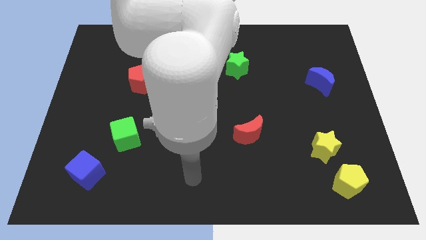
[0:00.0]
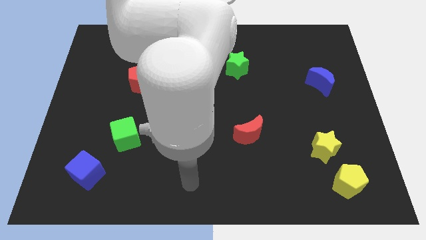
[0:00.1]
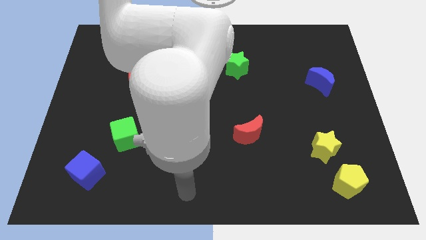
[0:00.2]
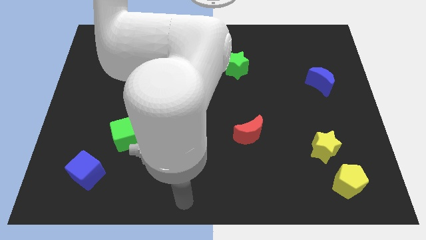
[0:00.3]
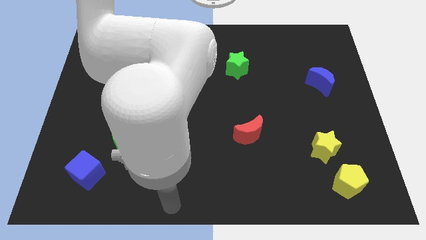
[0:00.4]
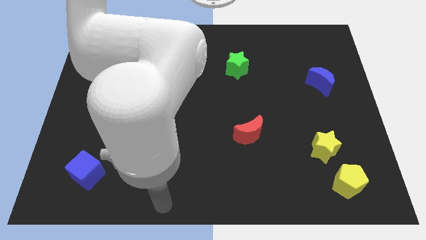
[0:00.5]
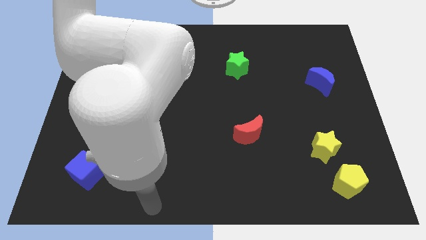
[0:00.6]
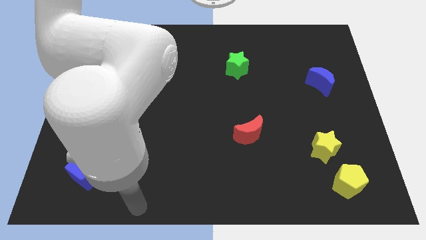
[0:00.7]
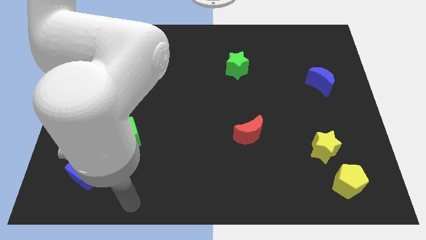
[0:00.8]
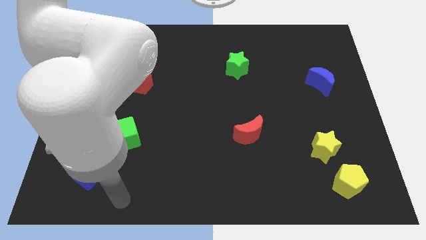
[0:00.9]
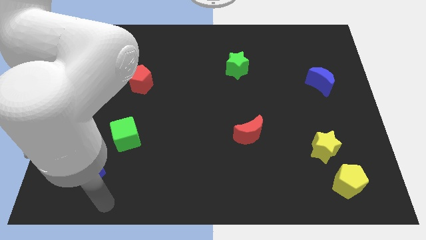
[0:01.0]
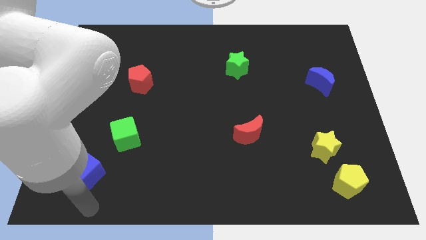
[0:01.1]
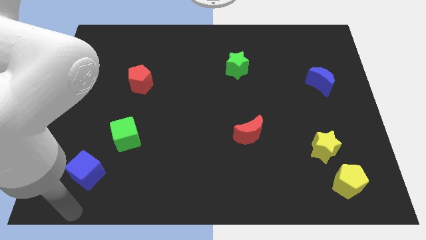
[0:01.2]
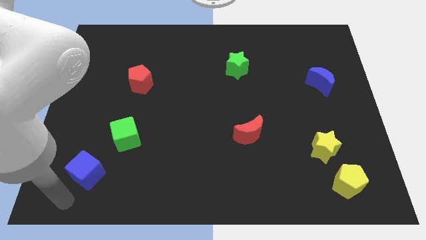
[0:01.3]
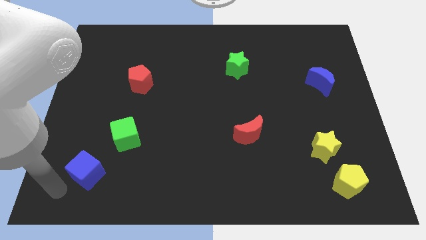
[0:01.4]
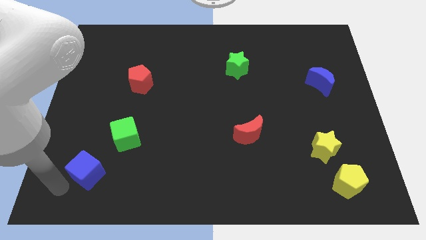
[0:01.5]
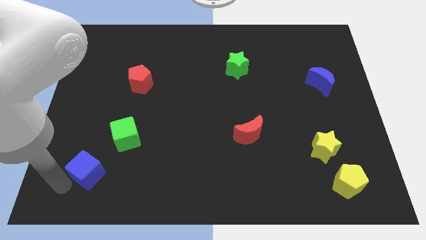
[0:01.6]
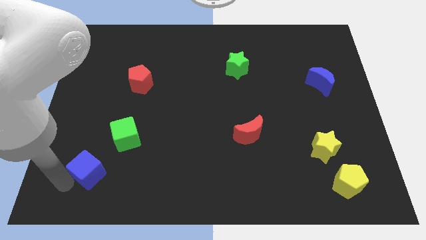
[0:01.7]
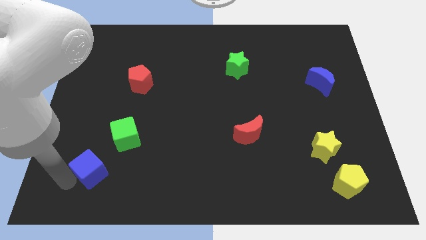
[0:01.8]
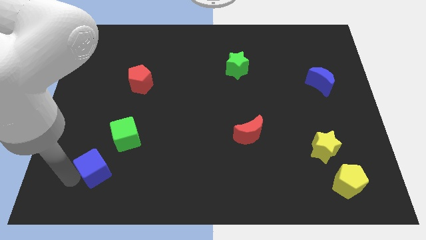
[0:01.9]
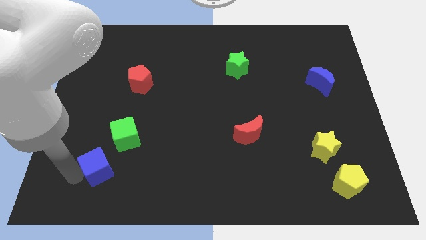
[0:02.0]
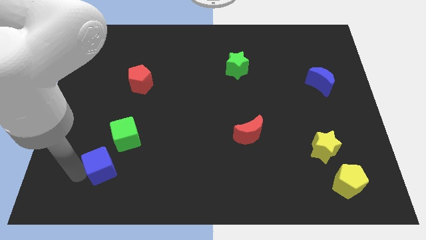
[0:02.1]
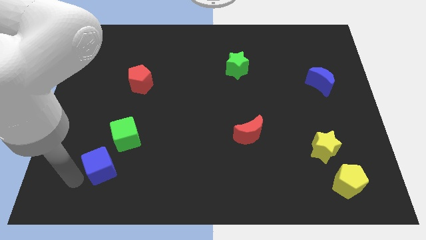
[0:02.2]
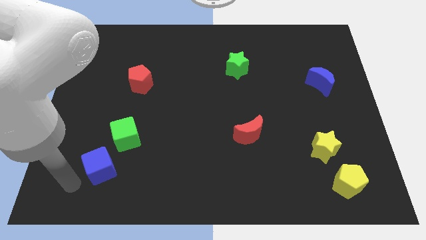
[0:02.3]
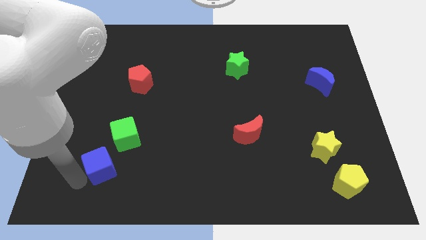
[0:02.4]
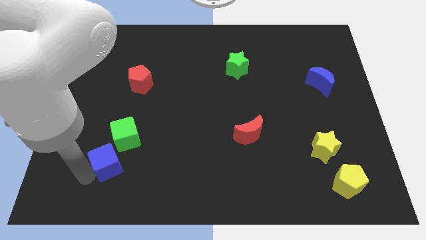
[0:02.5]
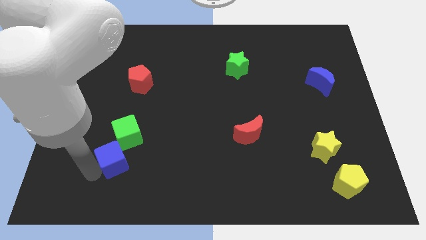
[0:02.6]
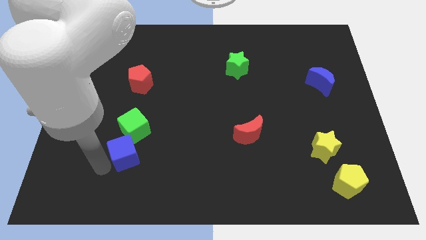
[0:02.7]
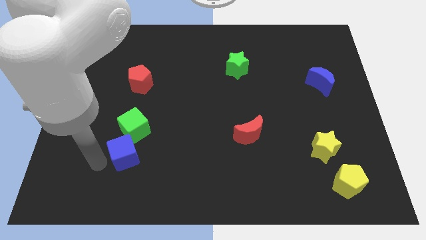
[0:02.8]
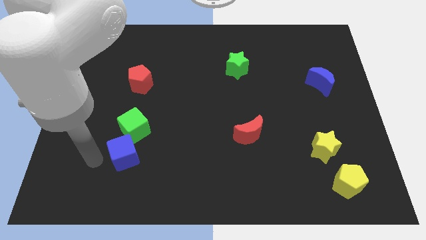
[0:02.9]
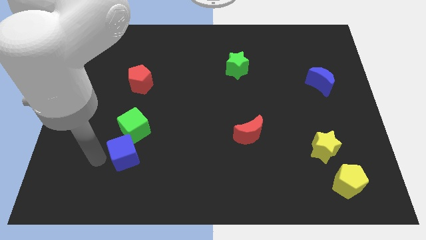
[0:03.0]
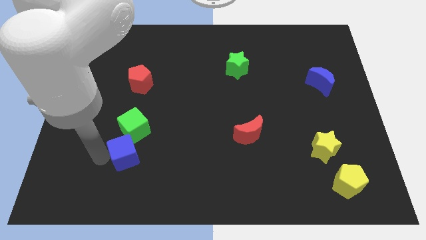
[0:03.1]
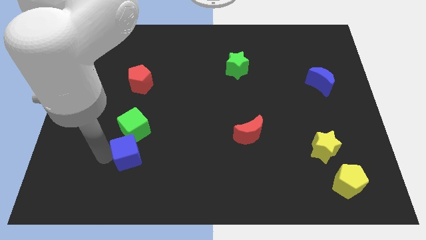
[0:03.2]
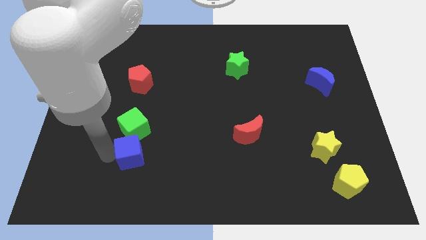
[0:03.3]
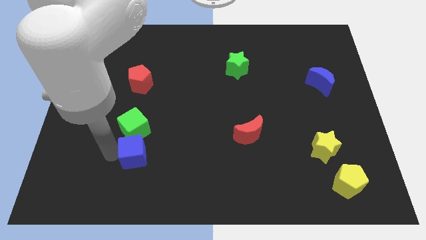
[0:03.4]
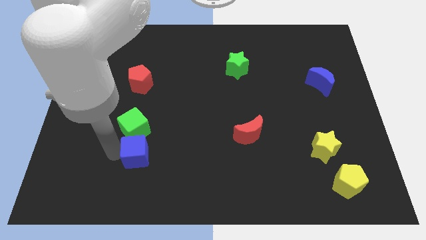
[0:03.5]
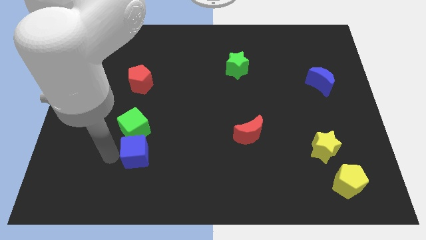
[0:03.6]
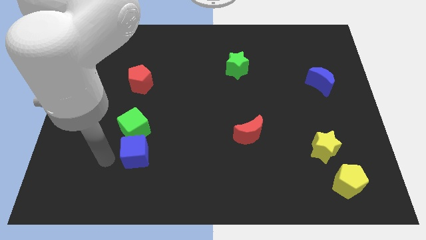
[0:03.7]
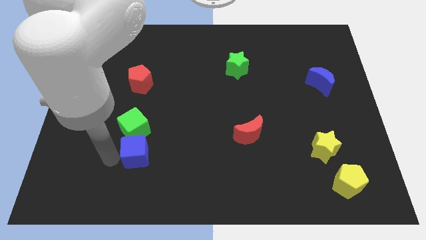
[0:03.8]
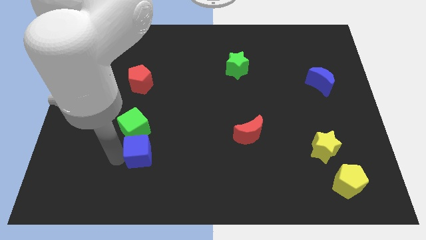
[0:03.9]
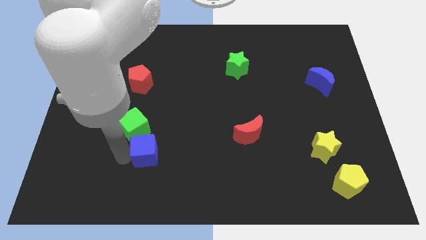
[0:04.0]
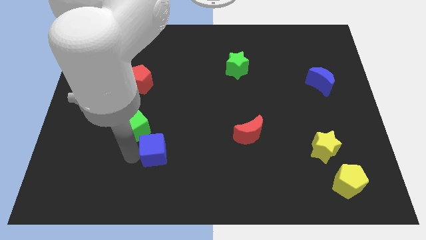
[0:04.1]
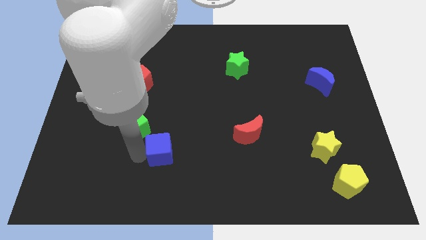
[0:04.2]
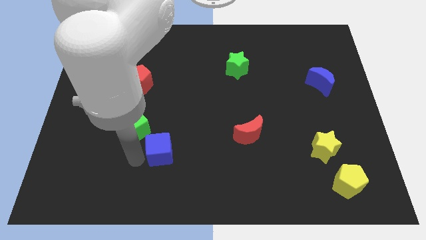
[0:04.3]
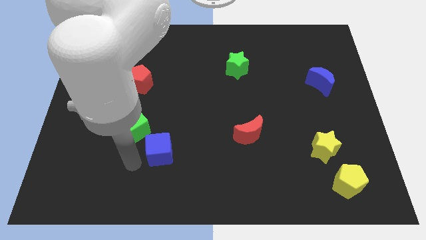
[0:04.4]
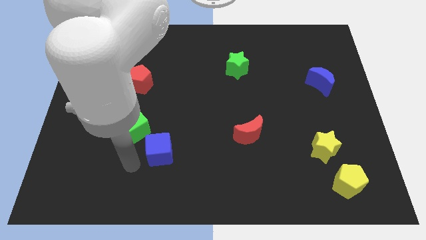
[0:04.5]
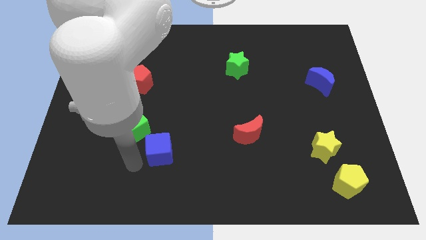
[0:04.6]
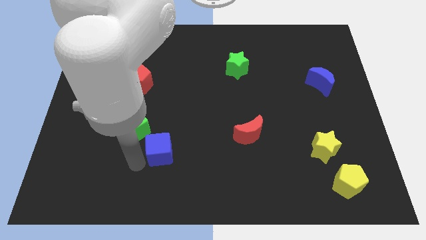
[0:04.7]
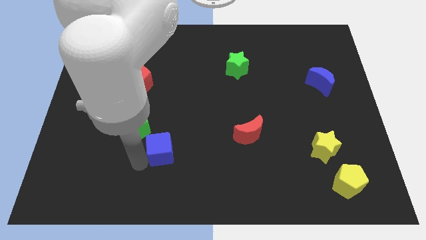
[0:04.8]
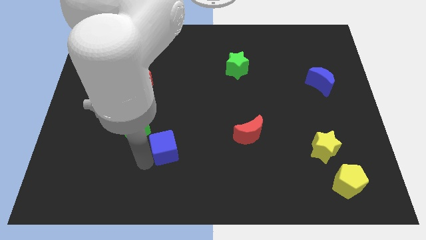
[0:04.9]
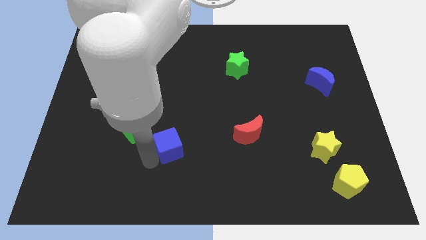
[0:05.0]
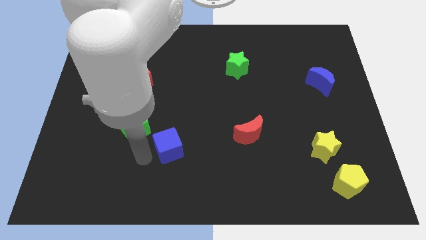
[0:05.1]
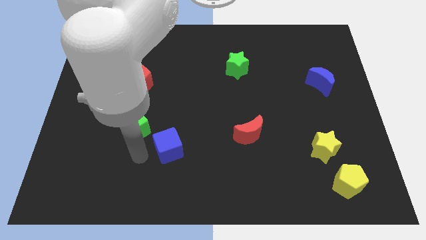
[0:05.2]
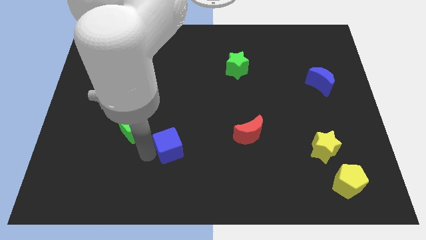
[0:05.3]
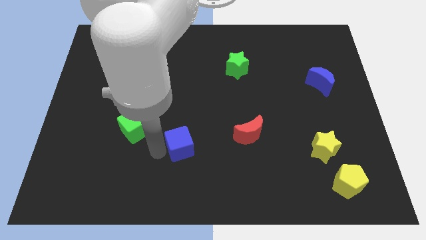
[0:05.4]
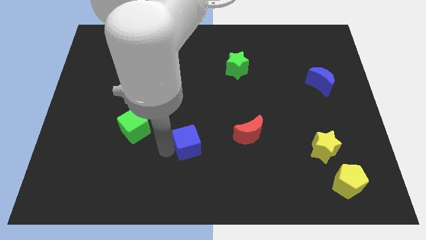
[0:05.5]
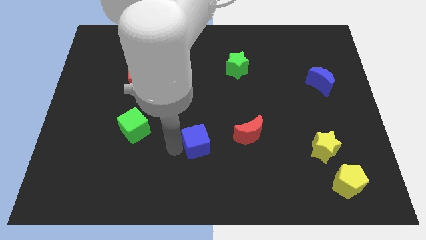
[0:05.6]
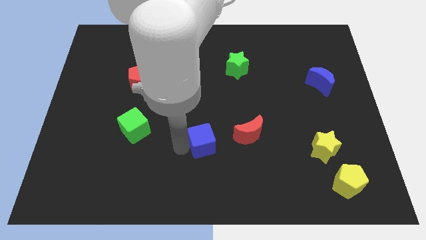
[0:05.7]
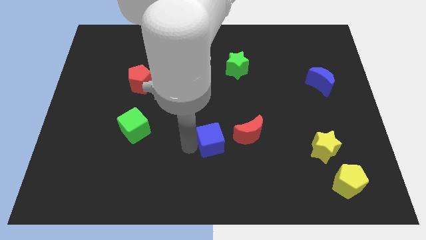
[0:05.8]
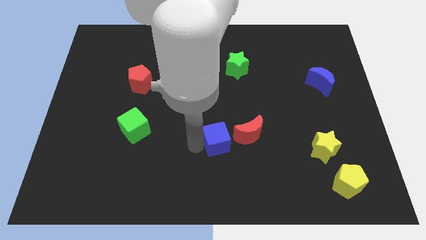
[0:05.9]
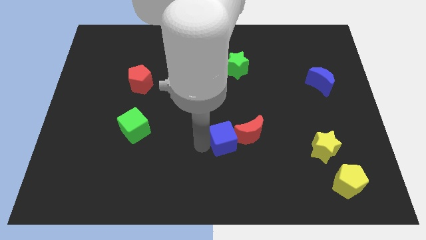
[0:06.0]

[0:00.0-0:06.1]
move the blue cube next to the red moon

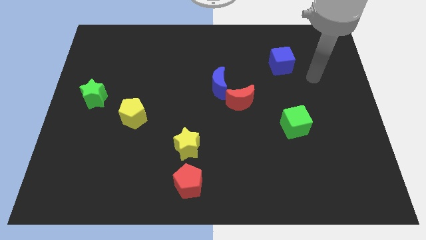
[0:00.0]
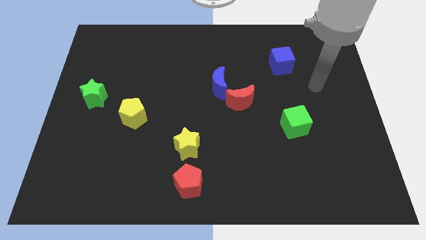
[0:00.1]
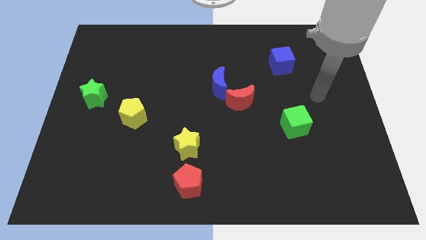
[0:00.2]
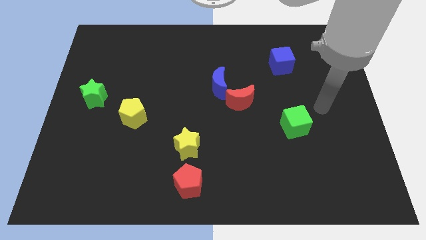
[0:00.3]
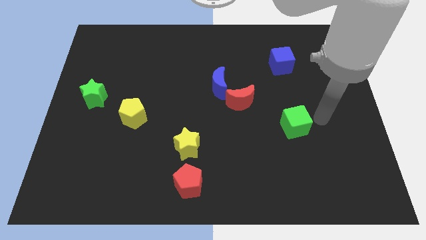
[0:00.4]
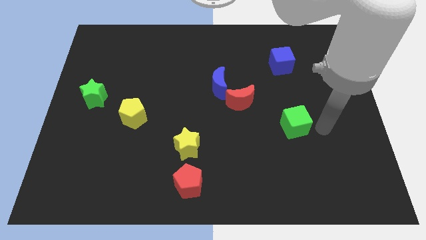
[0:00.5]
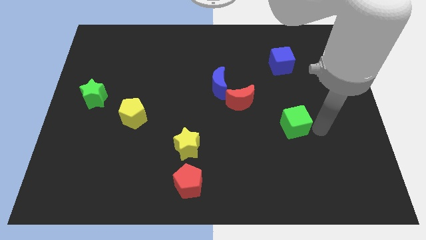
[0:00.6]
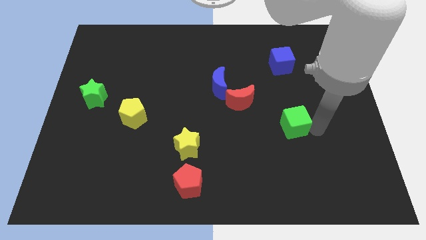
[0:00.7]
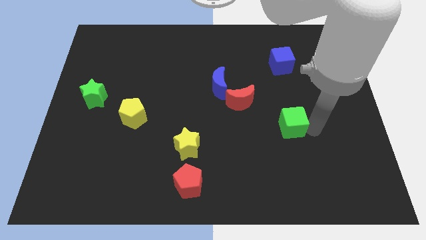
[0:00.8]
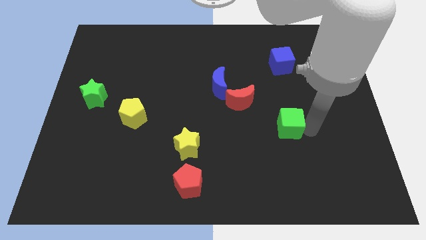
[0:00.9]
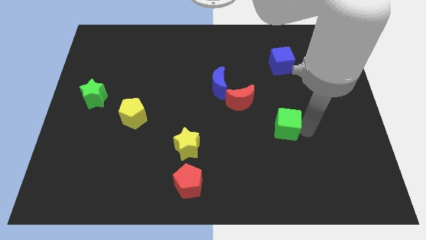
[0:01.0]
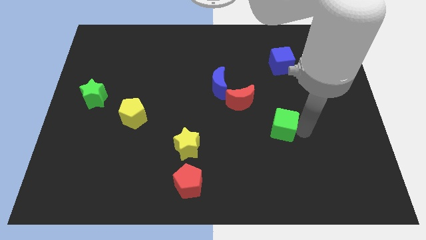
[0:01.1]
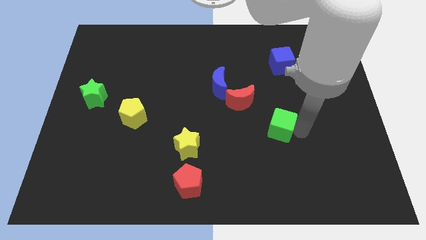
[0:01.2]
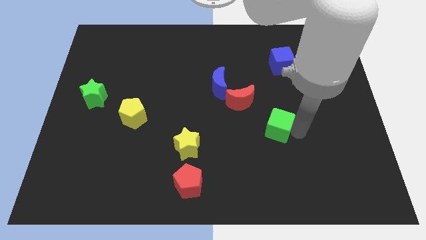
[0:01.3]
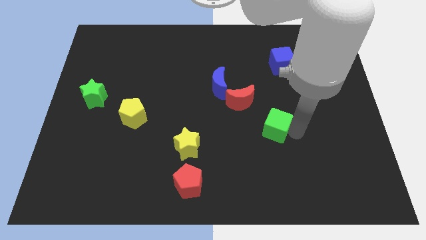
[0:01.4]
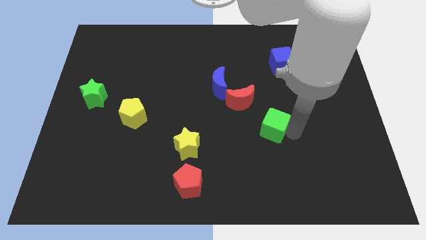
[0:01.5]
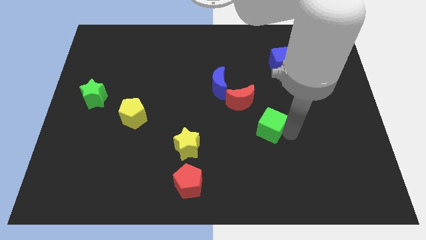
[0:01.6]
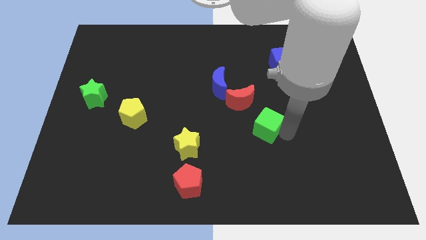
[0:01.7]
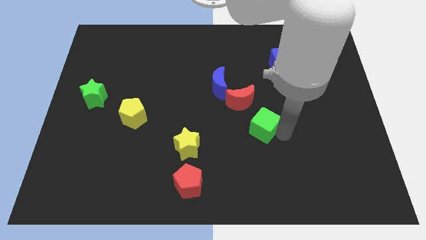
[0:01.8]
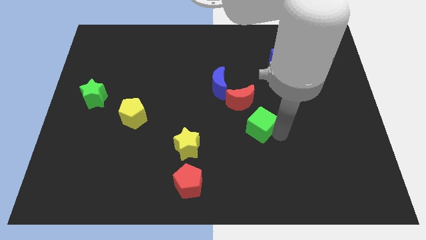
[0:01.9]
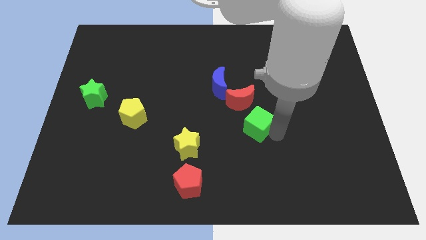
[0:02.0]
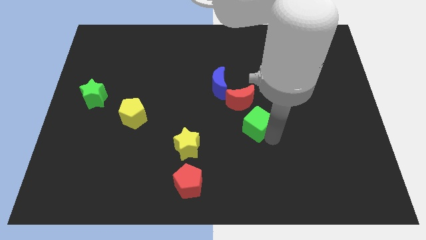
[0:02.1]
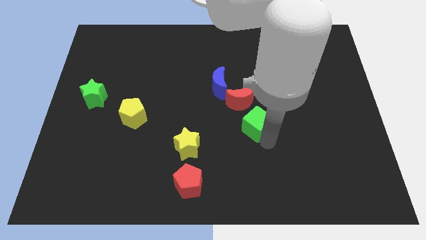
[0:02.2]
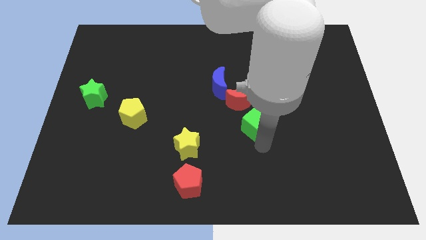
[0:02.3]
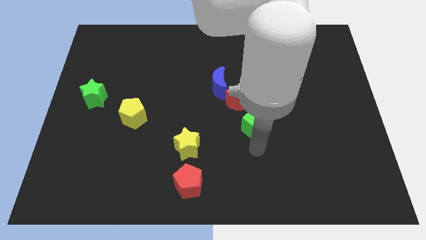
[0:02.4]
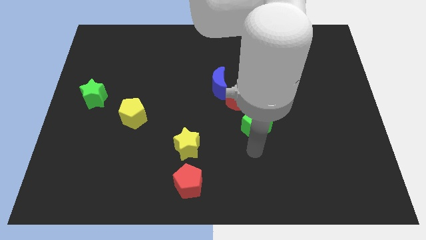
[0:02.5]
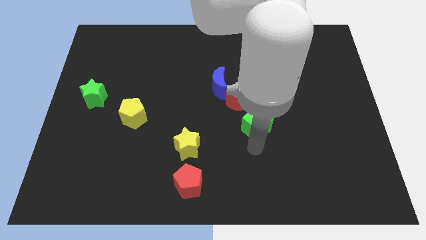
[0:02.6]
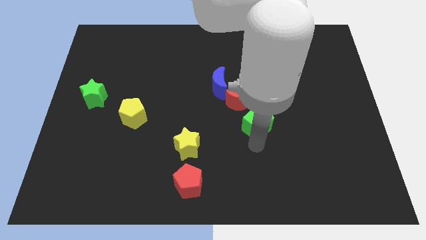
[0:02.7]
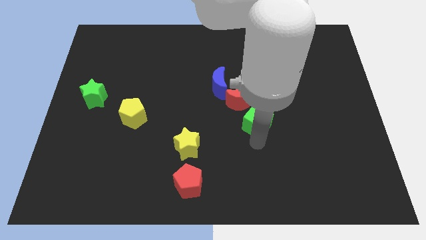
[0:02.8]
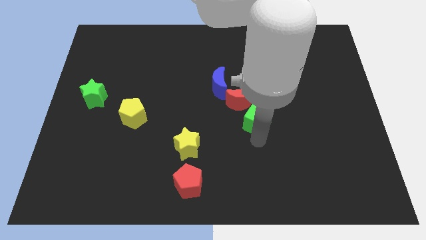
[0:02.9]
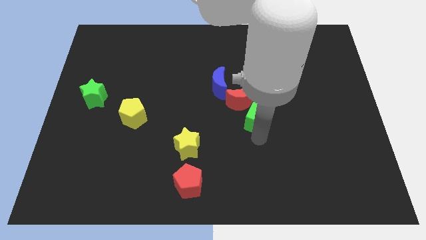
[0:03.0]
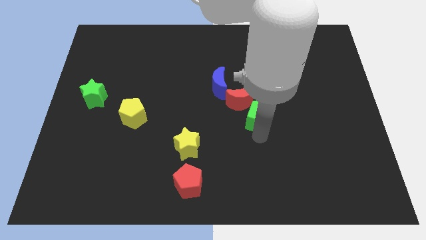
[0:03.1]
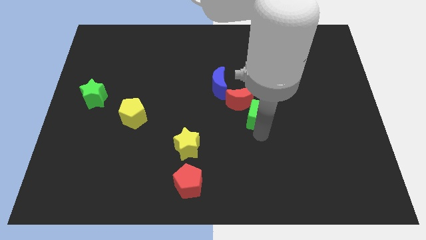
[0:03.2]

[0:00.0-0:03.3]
push the green cube next to the red moon
